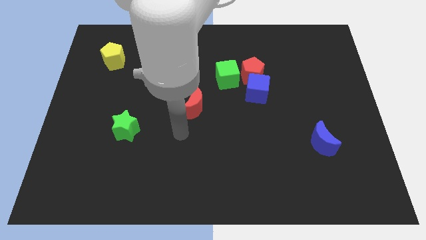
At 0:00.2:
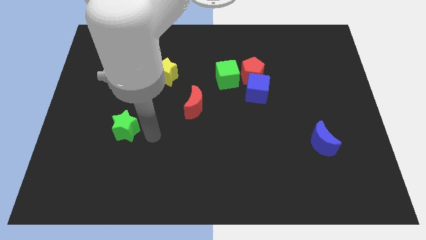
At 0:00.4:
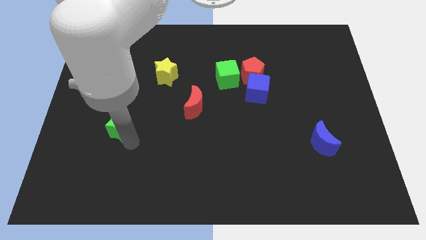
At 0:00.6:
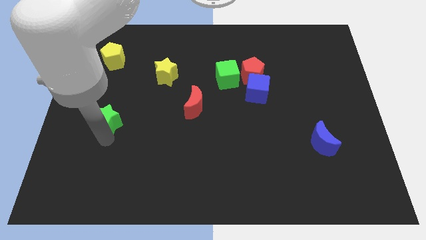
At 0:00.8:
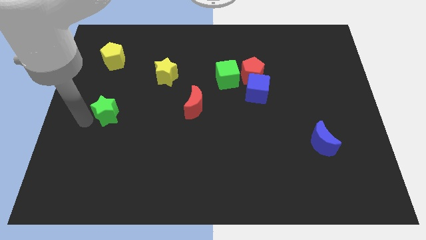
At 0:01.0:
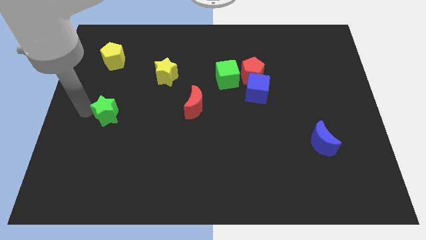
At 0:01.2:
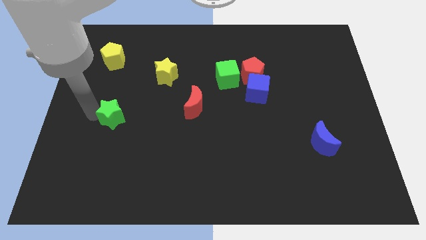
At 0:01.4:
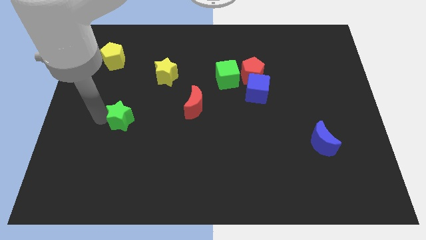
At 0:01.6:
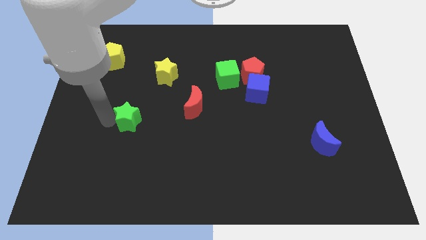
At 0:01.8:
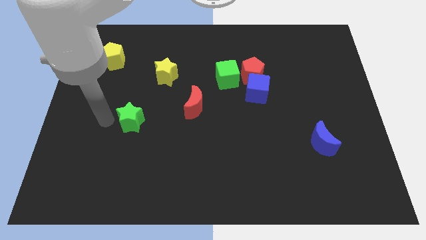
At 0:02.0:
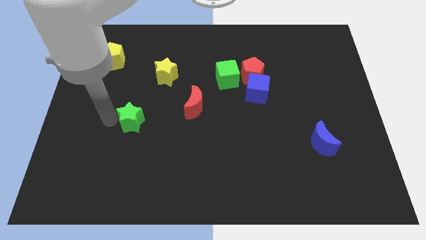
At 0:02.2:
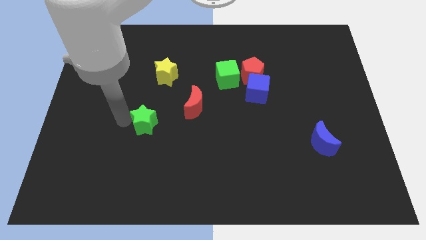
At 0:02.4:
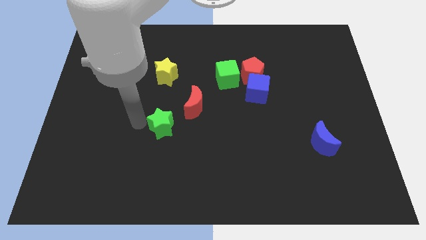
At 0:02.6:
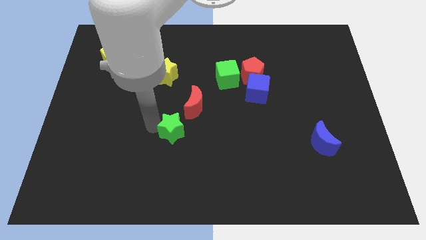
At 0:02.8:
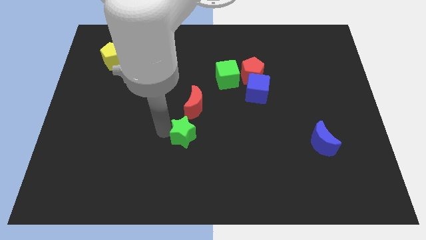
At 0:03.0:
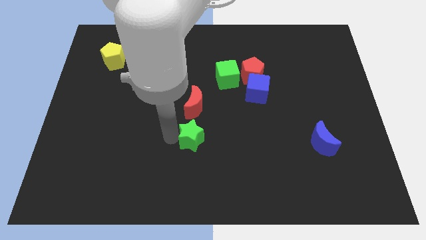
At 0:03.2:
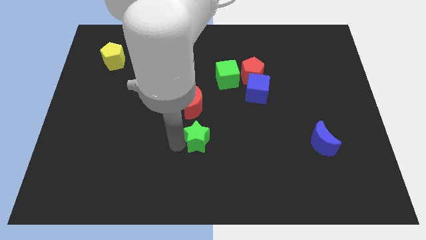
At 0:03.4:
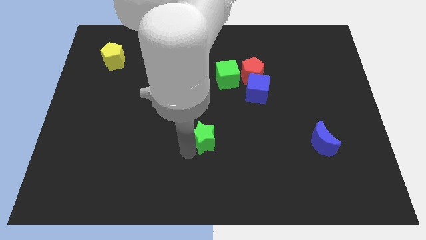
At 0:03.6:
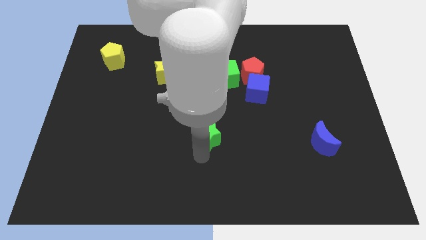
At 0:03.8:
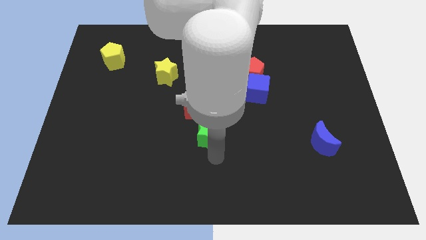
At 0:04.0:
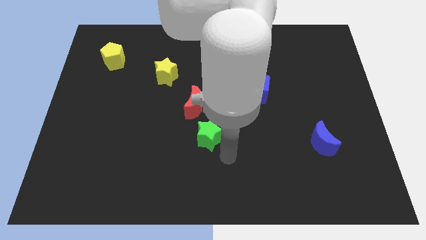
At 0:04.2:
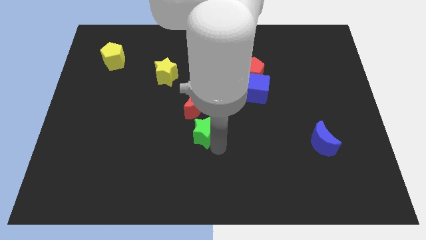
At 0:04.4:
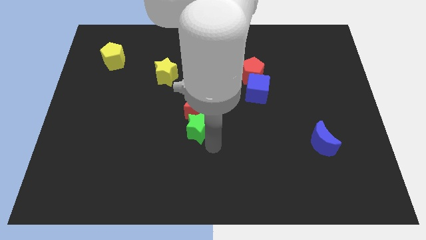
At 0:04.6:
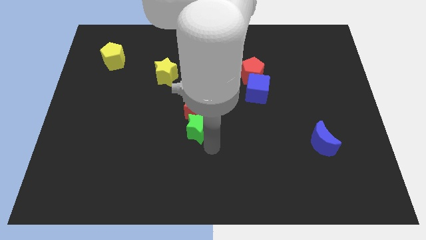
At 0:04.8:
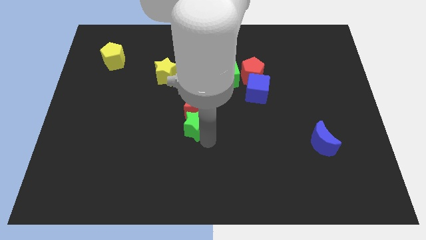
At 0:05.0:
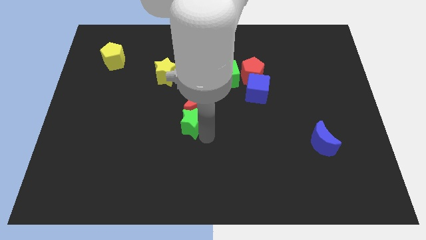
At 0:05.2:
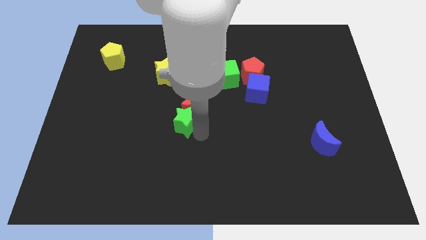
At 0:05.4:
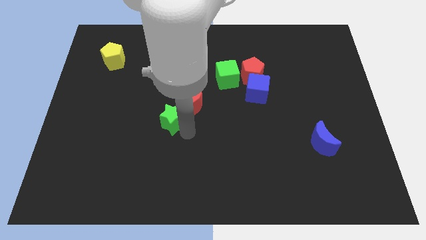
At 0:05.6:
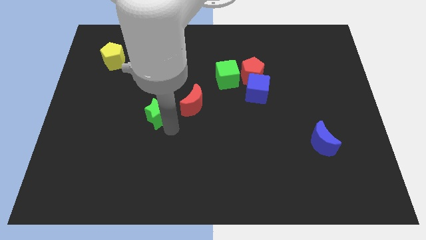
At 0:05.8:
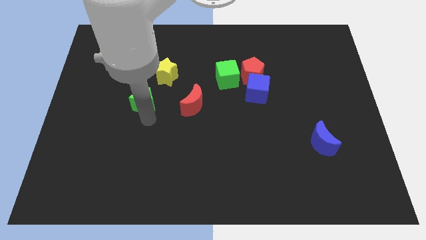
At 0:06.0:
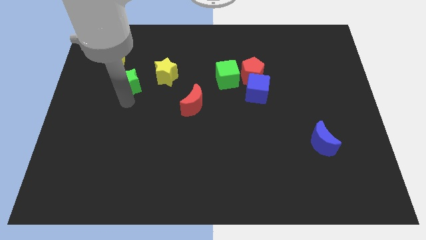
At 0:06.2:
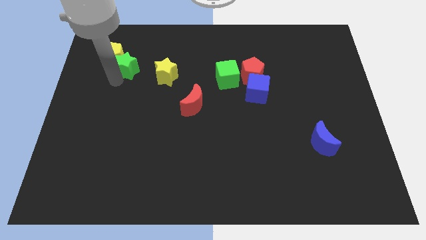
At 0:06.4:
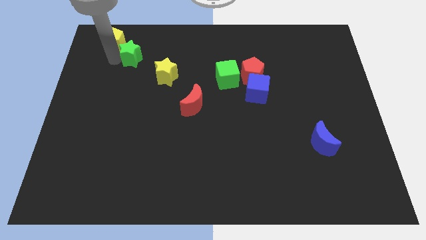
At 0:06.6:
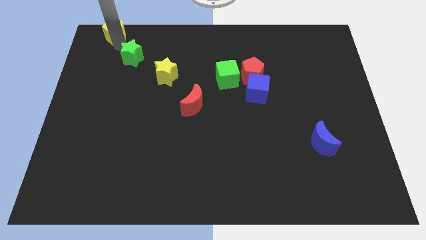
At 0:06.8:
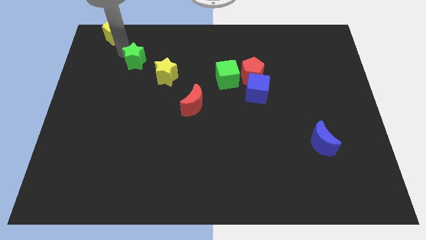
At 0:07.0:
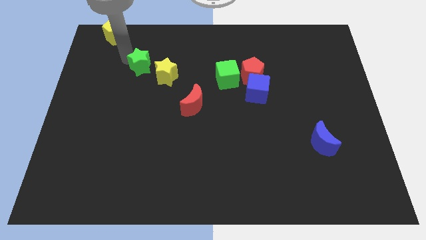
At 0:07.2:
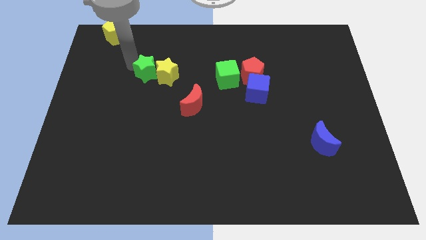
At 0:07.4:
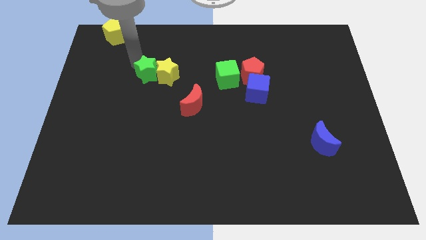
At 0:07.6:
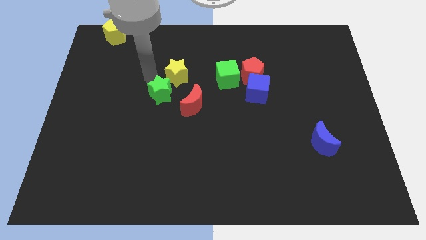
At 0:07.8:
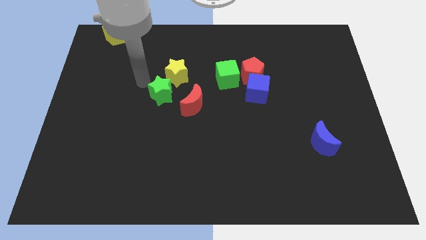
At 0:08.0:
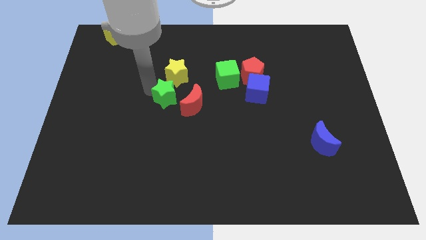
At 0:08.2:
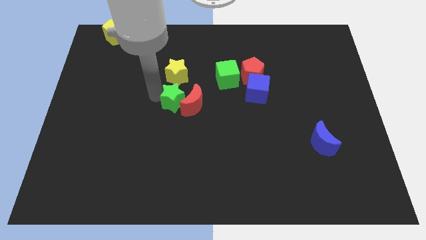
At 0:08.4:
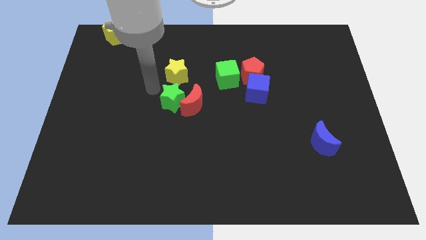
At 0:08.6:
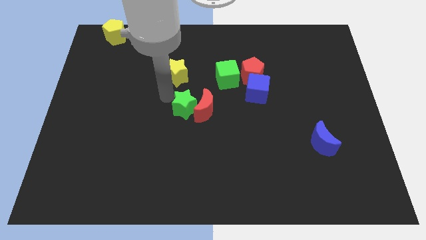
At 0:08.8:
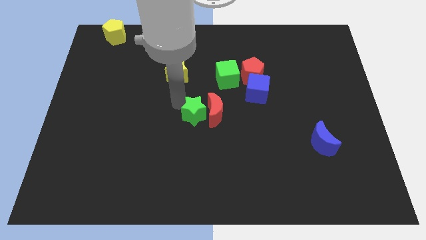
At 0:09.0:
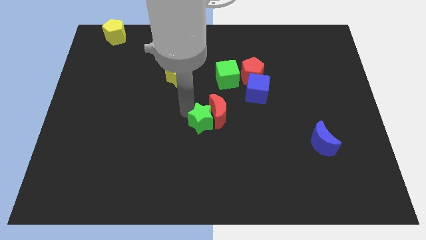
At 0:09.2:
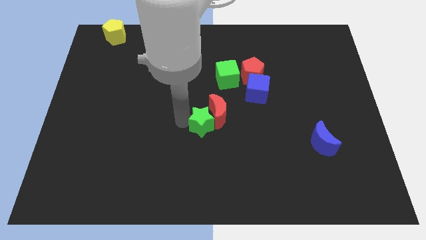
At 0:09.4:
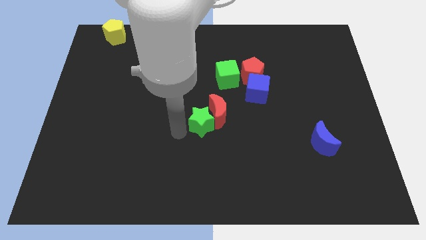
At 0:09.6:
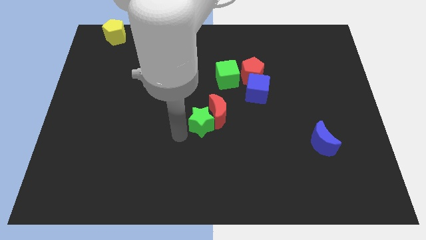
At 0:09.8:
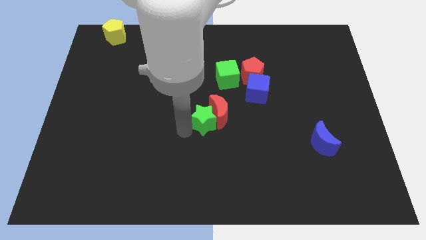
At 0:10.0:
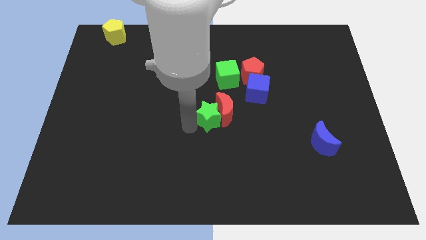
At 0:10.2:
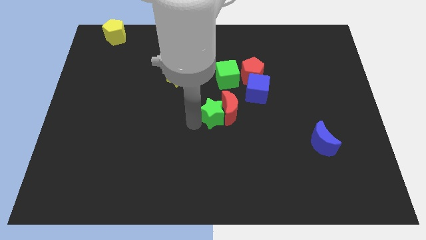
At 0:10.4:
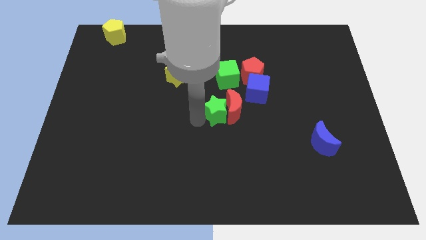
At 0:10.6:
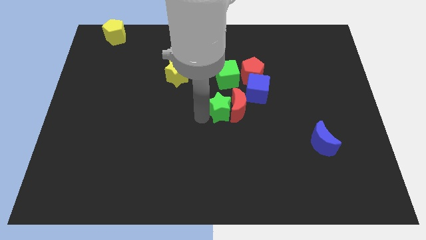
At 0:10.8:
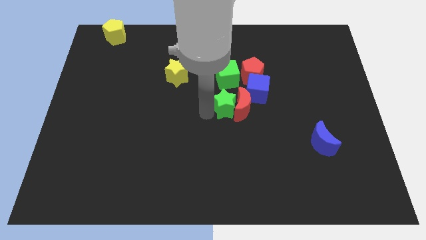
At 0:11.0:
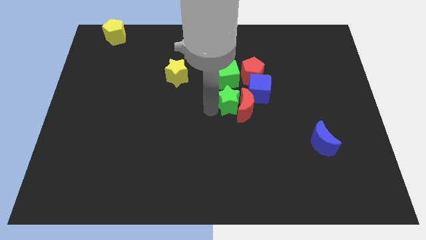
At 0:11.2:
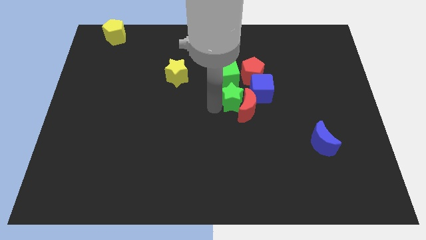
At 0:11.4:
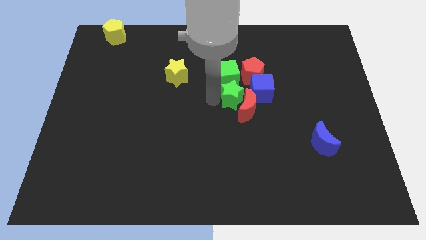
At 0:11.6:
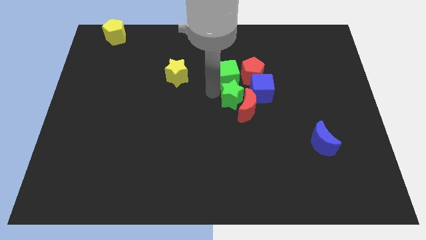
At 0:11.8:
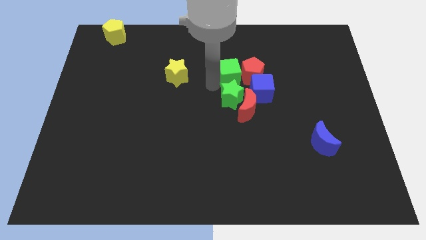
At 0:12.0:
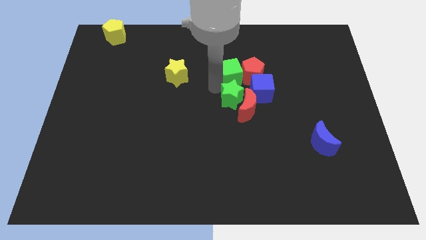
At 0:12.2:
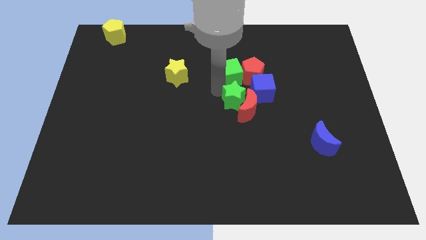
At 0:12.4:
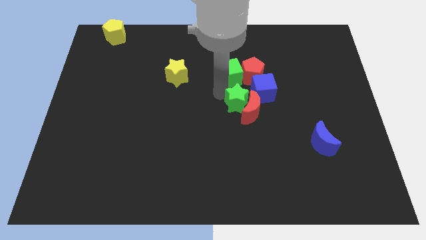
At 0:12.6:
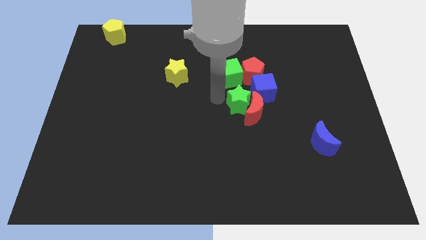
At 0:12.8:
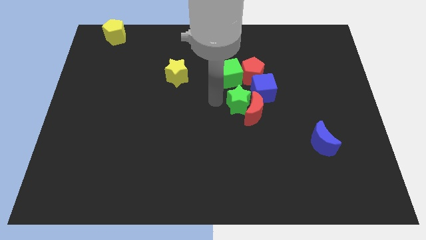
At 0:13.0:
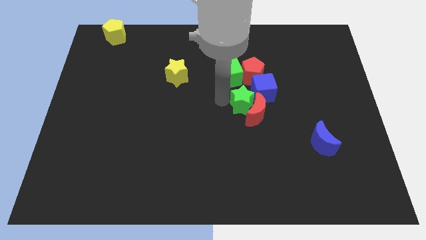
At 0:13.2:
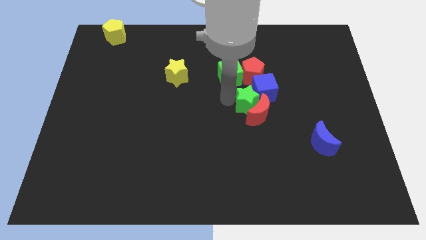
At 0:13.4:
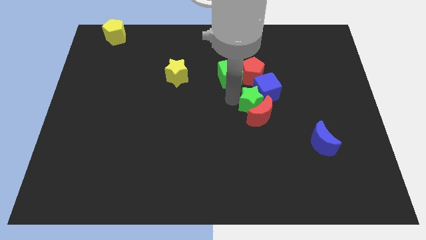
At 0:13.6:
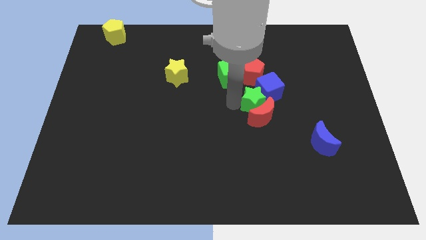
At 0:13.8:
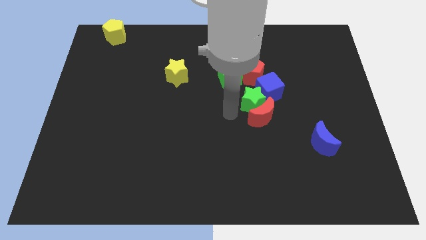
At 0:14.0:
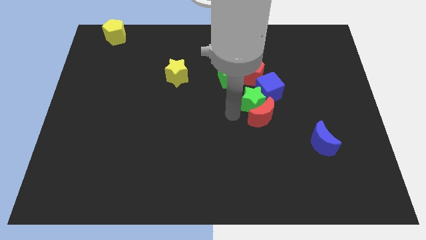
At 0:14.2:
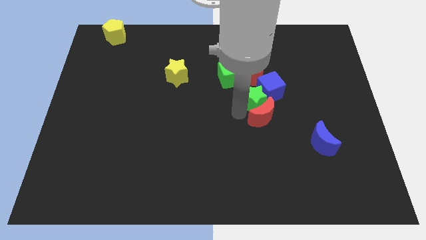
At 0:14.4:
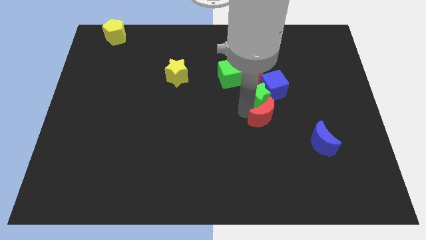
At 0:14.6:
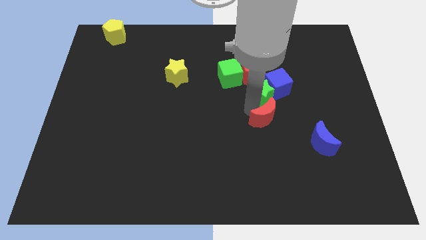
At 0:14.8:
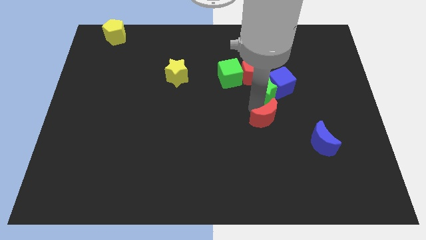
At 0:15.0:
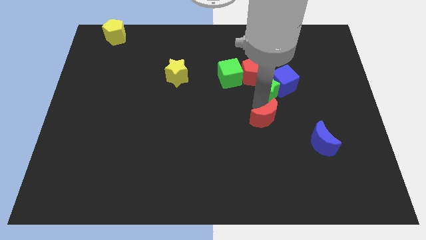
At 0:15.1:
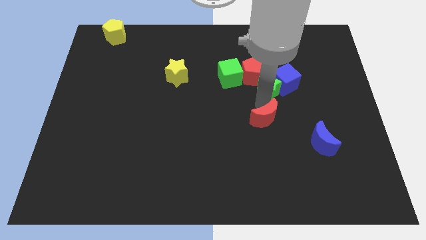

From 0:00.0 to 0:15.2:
push the green star to the right side of the green cube
